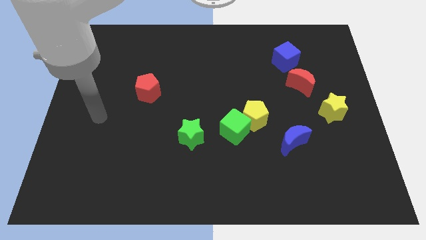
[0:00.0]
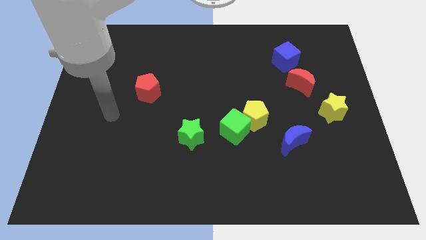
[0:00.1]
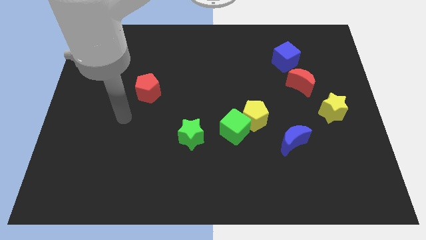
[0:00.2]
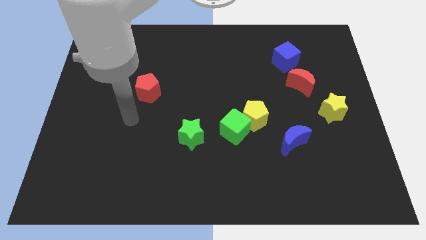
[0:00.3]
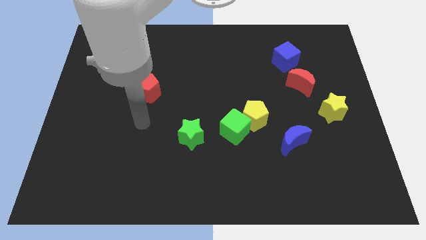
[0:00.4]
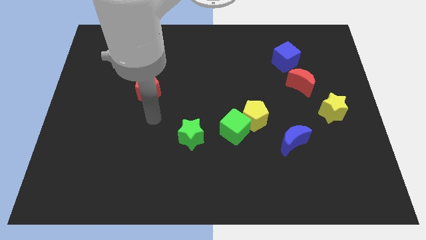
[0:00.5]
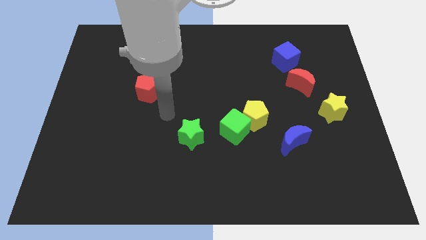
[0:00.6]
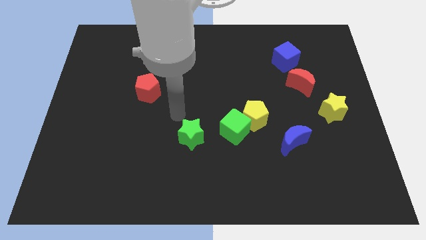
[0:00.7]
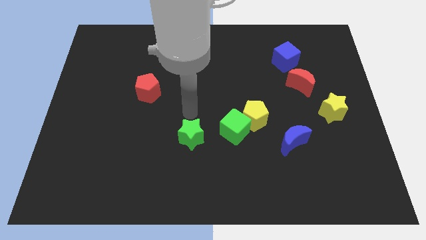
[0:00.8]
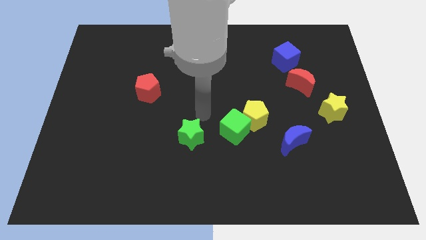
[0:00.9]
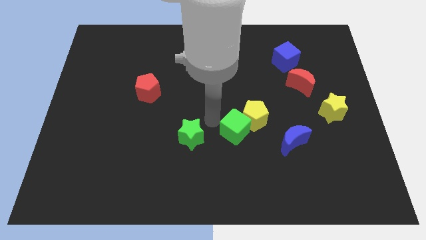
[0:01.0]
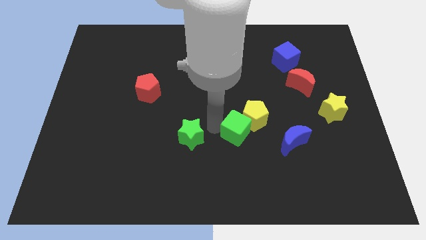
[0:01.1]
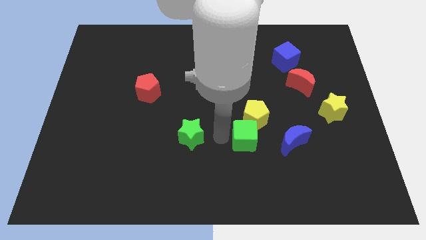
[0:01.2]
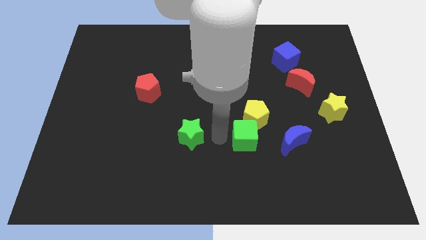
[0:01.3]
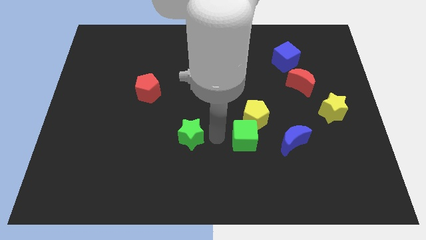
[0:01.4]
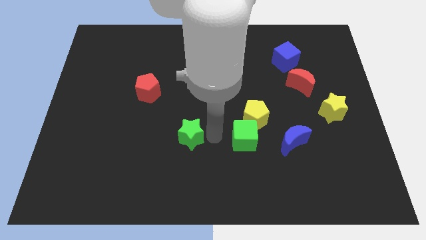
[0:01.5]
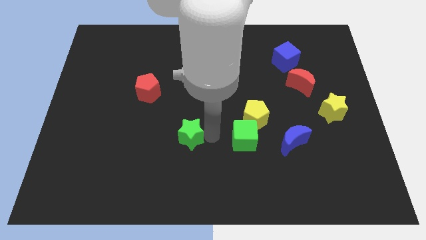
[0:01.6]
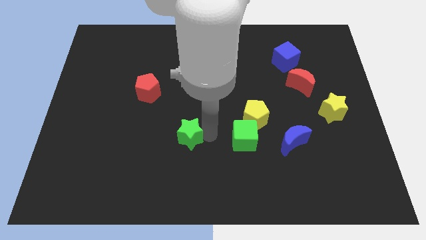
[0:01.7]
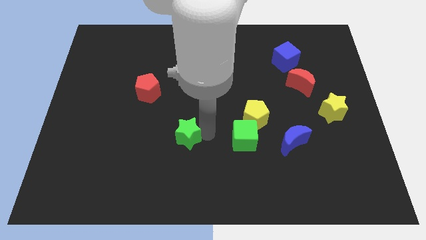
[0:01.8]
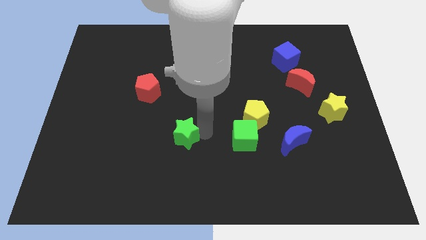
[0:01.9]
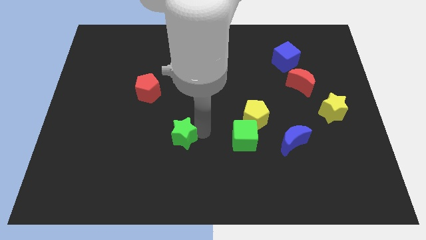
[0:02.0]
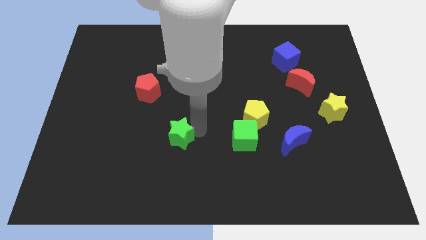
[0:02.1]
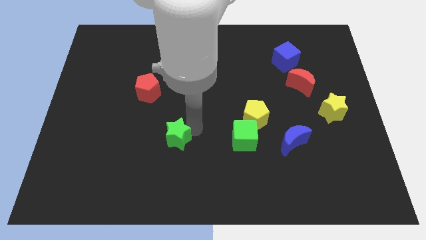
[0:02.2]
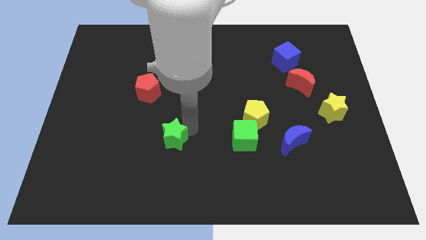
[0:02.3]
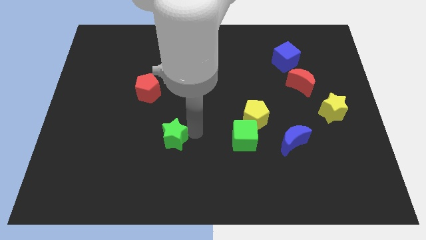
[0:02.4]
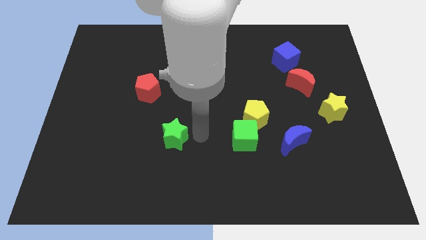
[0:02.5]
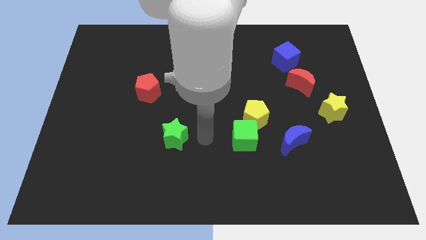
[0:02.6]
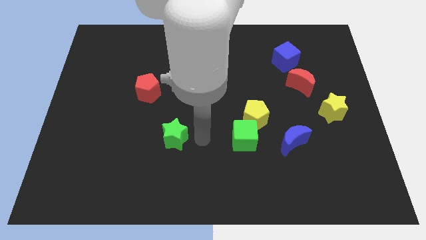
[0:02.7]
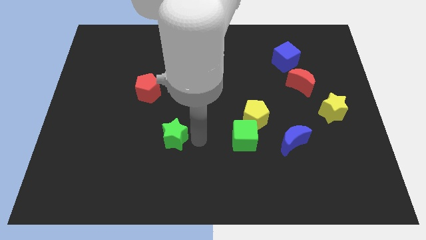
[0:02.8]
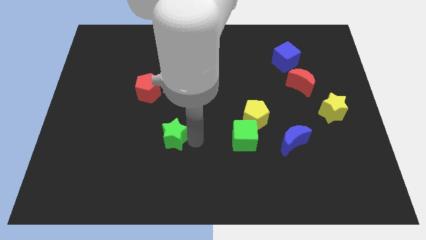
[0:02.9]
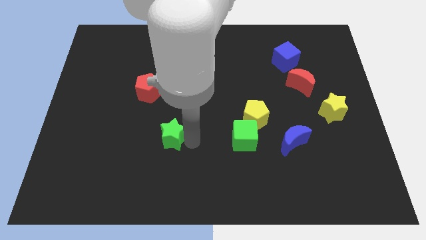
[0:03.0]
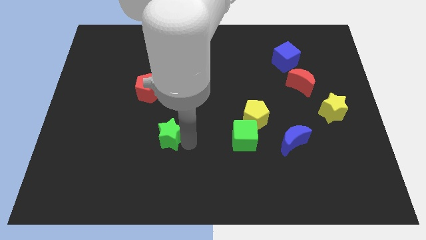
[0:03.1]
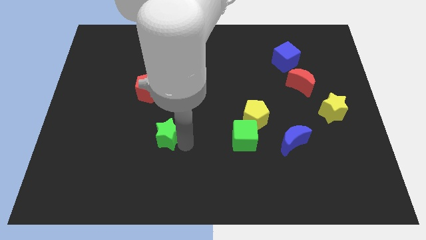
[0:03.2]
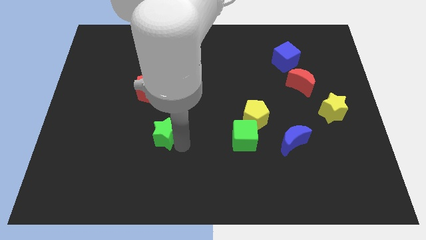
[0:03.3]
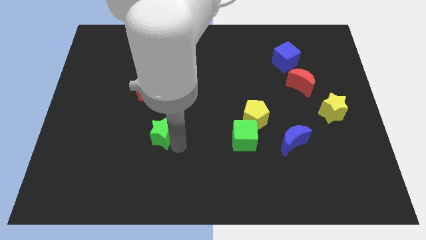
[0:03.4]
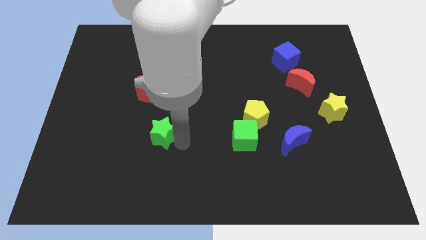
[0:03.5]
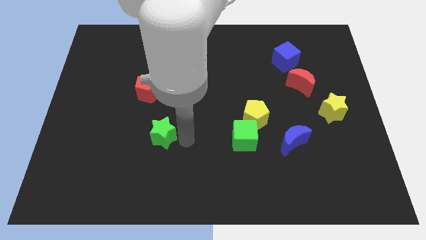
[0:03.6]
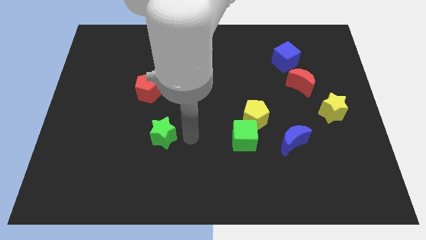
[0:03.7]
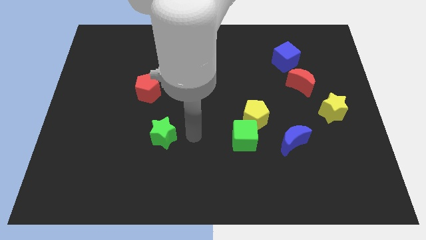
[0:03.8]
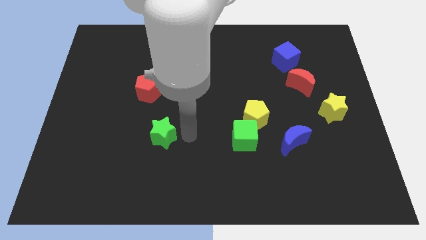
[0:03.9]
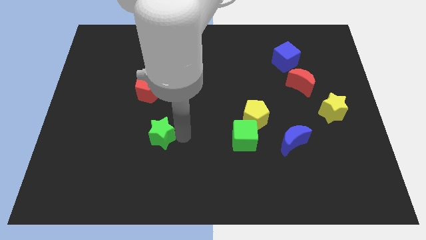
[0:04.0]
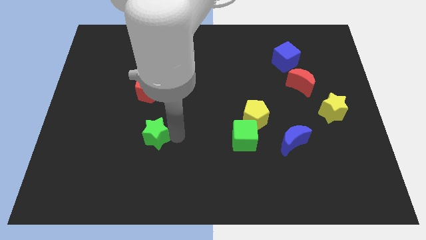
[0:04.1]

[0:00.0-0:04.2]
slightly slide the green star left

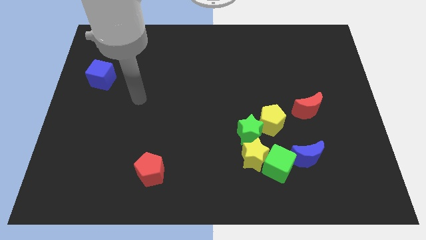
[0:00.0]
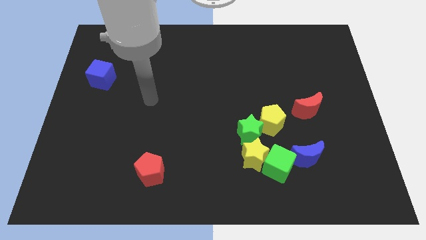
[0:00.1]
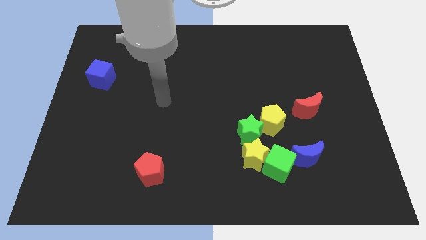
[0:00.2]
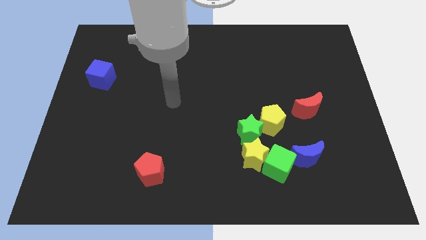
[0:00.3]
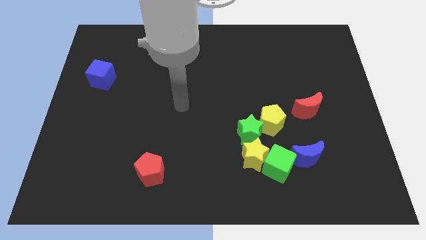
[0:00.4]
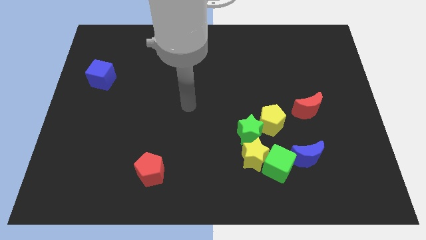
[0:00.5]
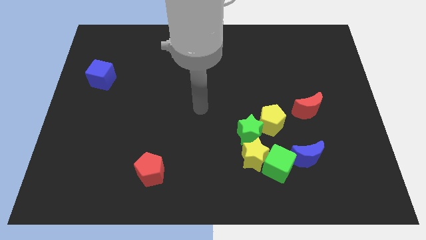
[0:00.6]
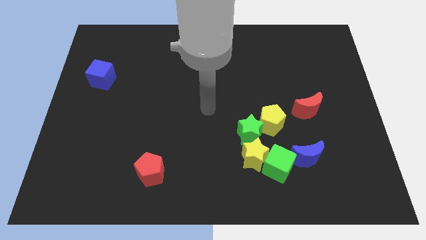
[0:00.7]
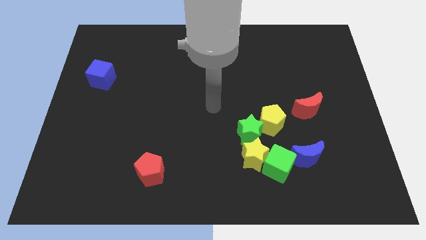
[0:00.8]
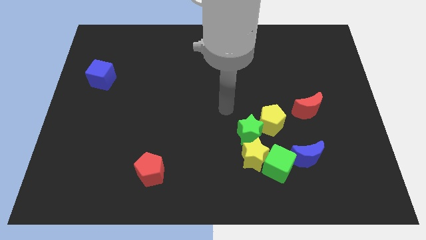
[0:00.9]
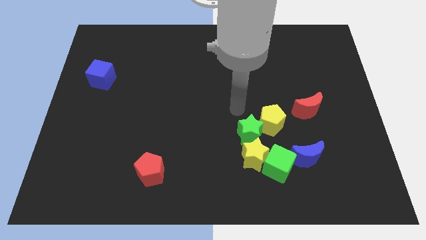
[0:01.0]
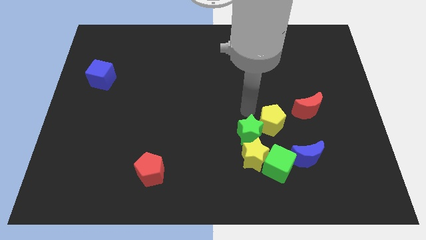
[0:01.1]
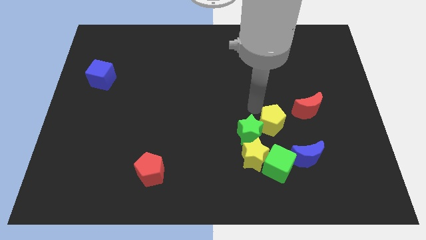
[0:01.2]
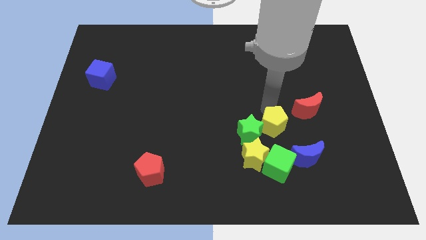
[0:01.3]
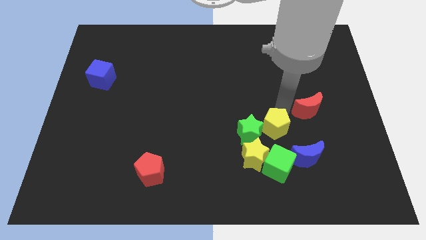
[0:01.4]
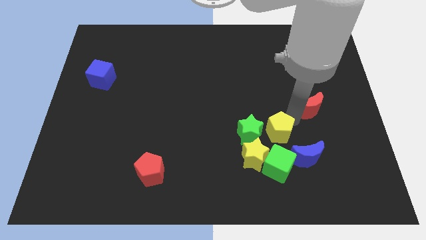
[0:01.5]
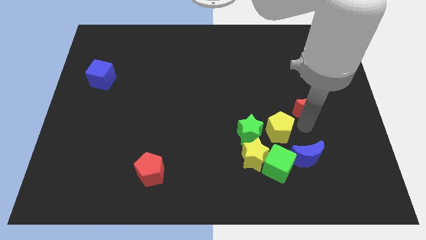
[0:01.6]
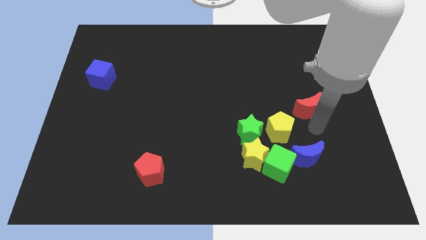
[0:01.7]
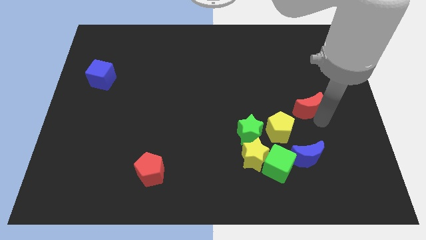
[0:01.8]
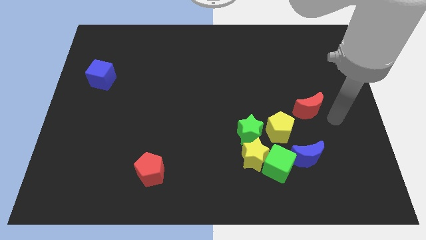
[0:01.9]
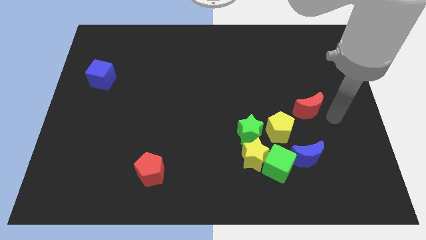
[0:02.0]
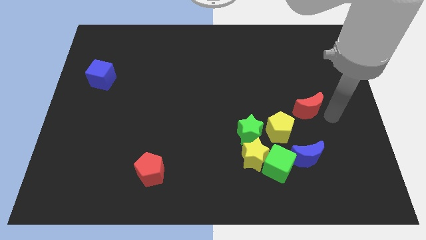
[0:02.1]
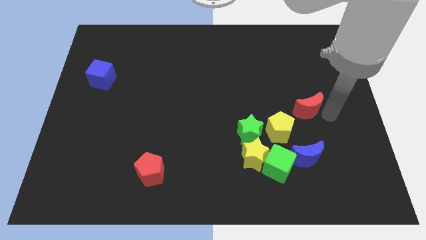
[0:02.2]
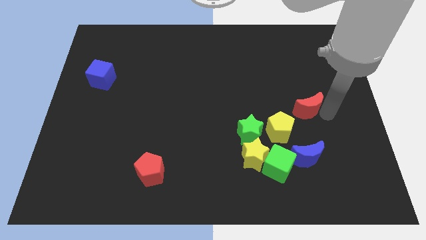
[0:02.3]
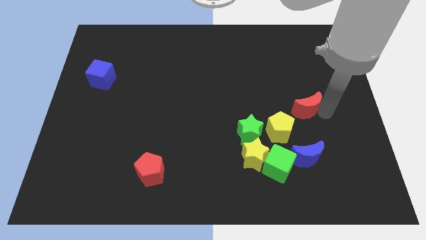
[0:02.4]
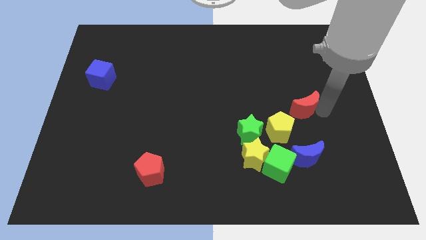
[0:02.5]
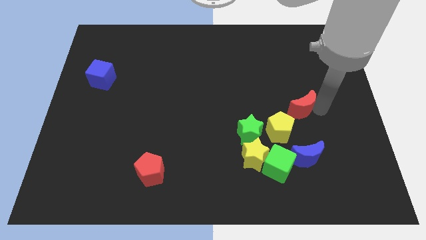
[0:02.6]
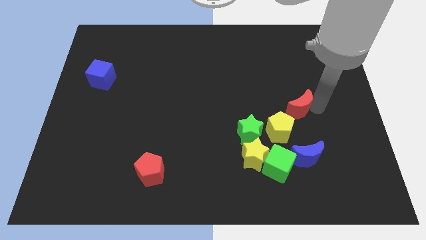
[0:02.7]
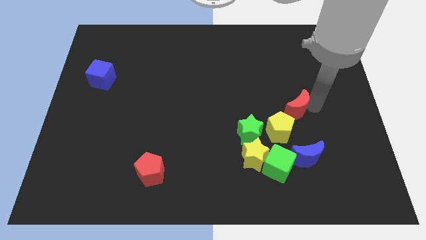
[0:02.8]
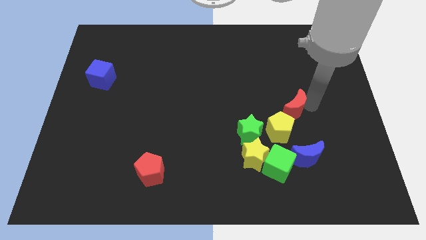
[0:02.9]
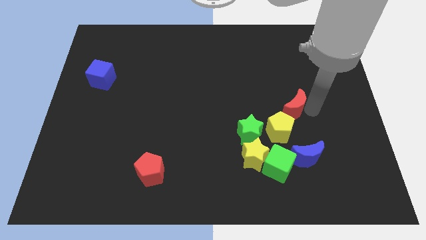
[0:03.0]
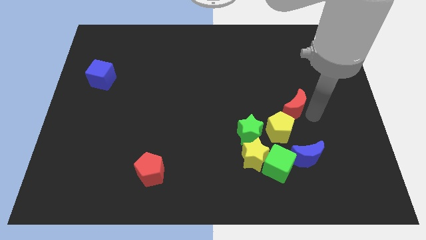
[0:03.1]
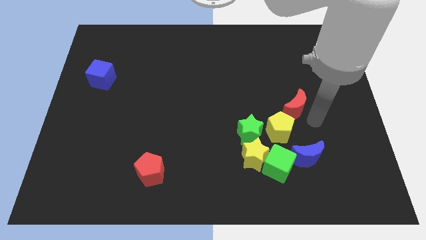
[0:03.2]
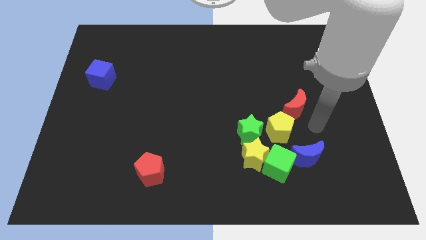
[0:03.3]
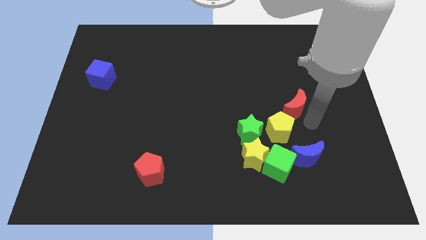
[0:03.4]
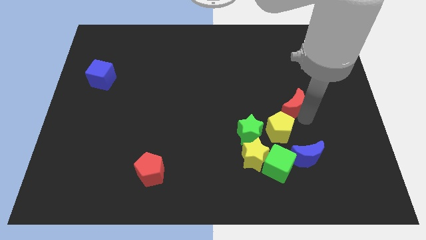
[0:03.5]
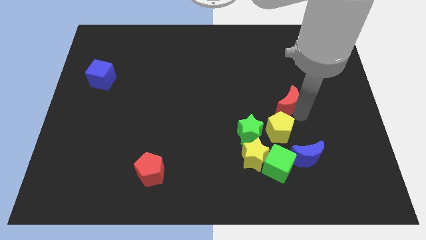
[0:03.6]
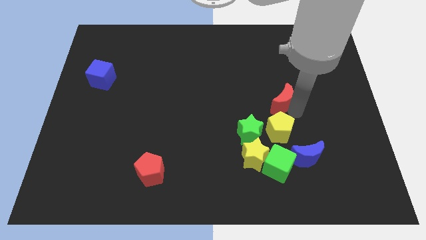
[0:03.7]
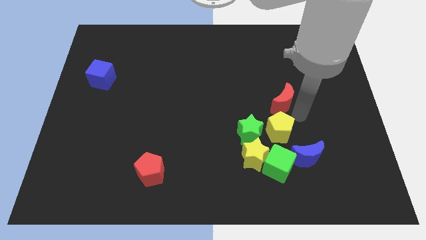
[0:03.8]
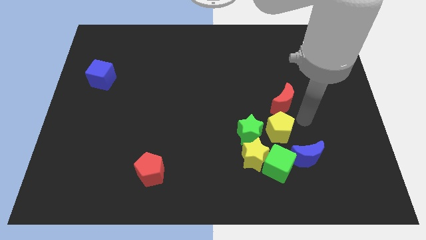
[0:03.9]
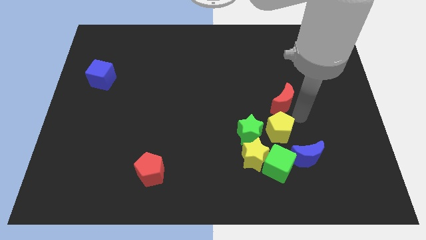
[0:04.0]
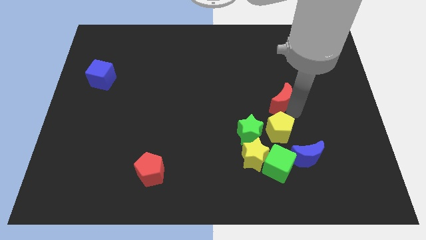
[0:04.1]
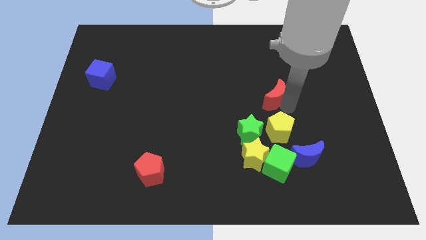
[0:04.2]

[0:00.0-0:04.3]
slightly push the red moon diagonally up and left
